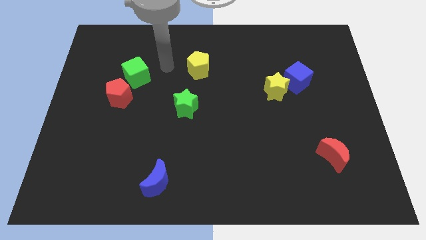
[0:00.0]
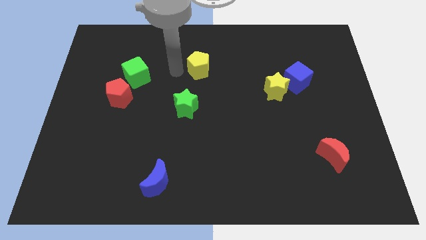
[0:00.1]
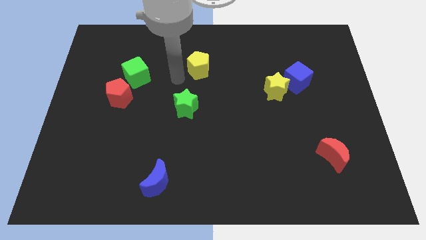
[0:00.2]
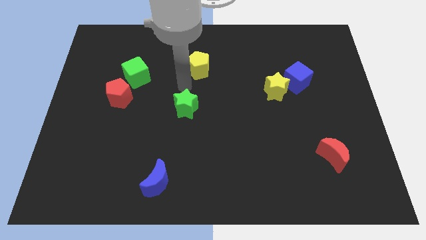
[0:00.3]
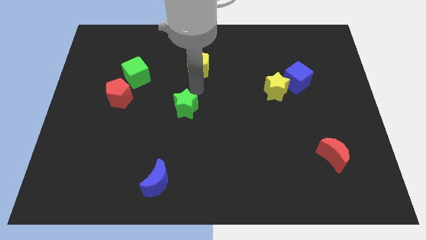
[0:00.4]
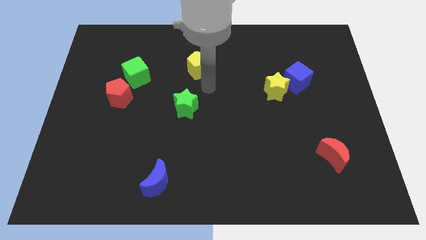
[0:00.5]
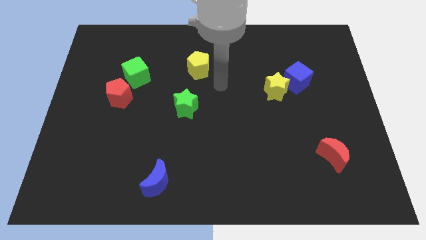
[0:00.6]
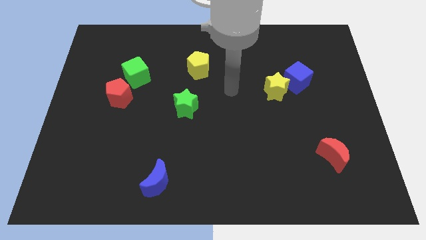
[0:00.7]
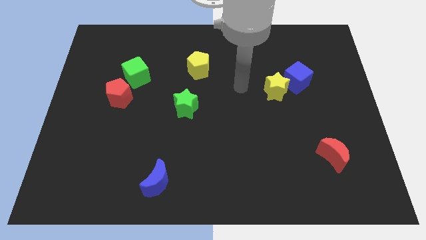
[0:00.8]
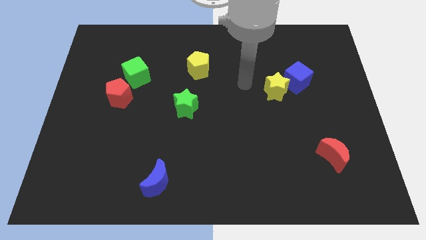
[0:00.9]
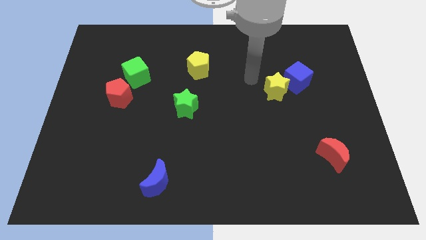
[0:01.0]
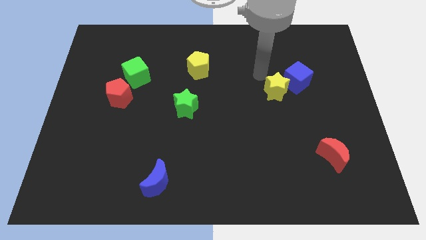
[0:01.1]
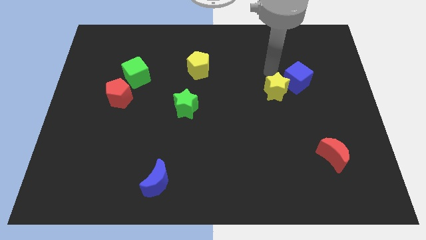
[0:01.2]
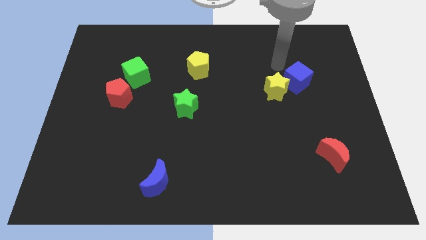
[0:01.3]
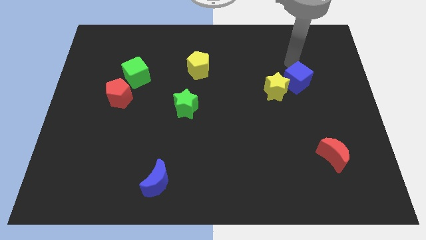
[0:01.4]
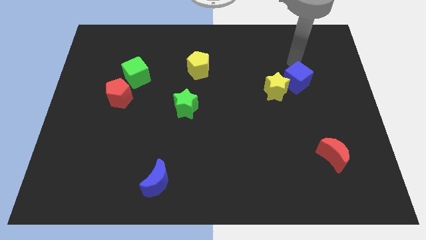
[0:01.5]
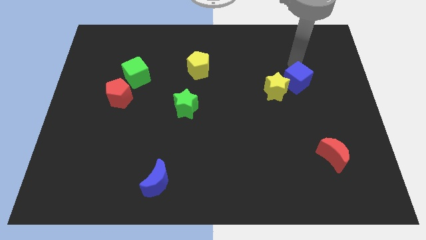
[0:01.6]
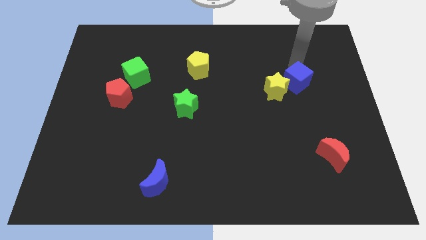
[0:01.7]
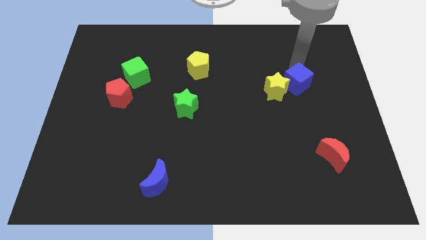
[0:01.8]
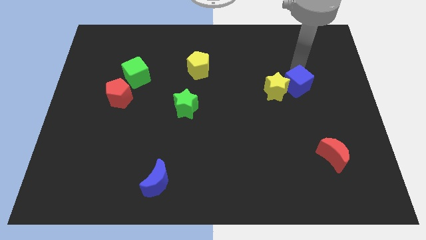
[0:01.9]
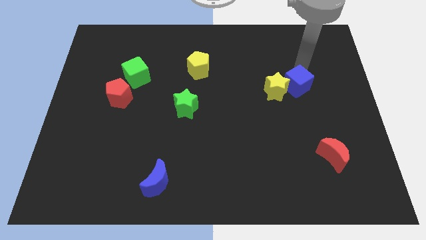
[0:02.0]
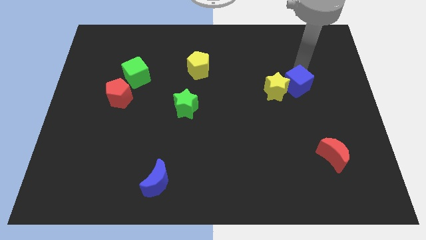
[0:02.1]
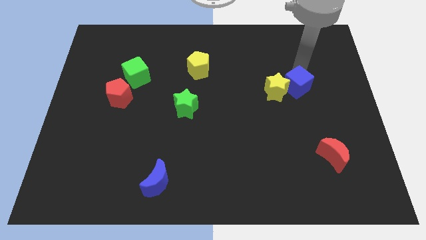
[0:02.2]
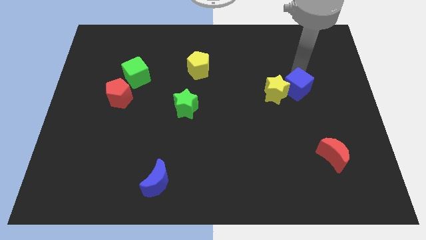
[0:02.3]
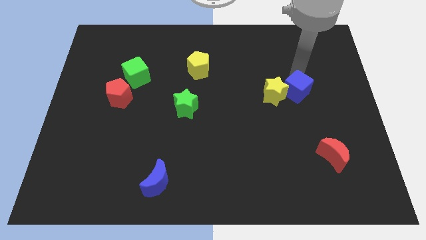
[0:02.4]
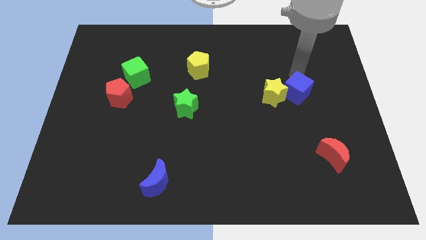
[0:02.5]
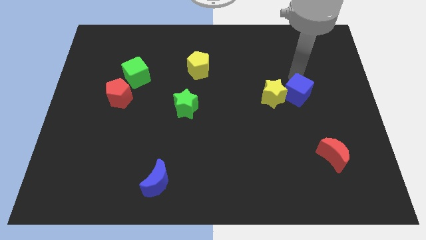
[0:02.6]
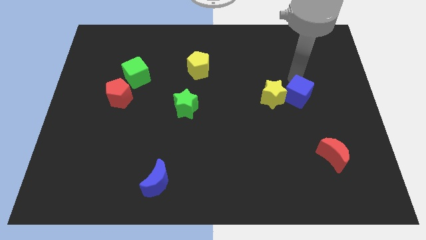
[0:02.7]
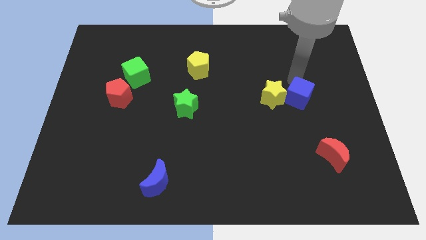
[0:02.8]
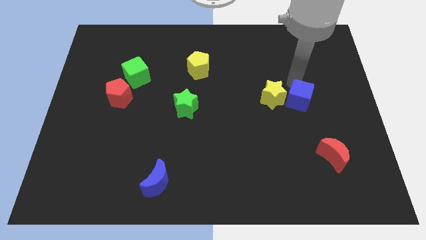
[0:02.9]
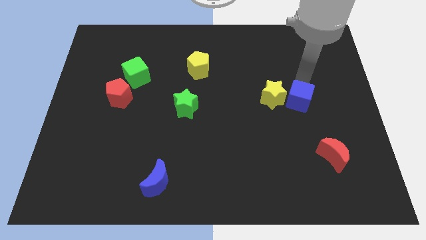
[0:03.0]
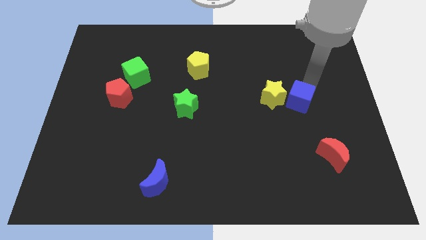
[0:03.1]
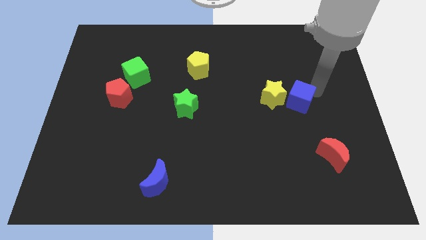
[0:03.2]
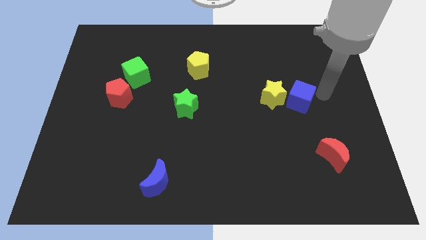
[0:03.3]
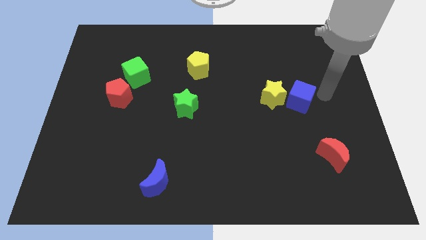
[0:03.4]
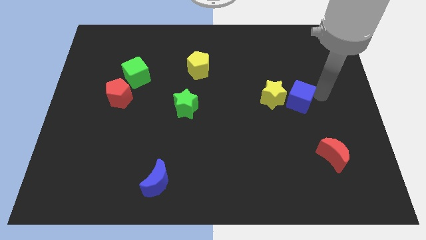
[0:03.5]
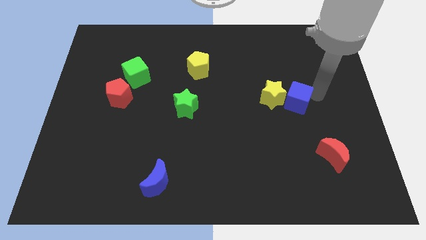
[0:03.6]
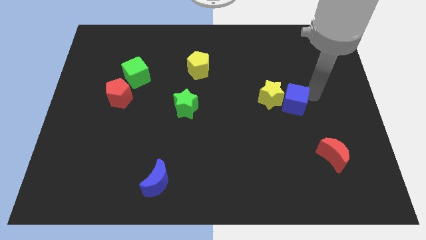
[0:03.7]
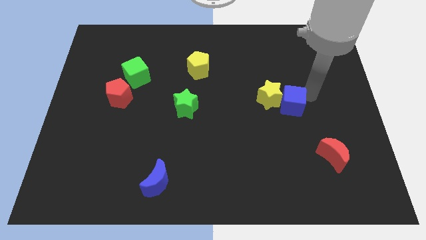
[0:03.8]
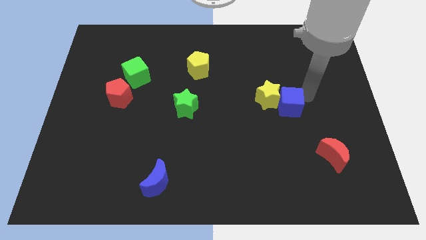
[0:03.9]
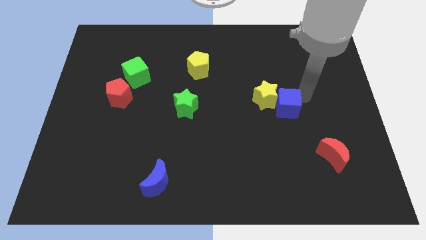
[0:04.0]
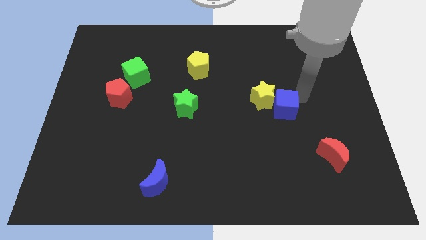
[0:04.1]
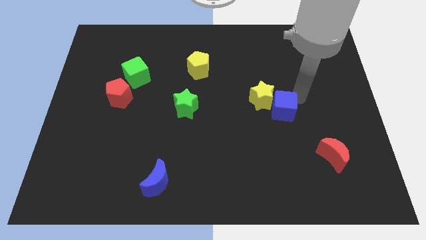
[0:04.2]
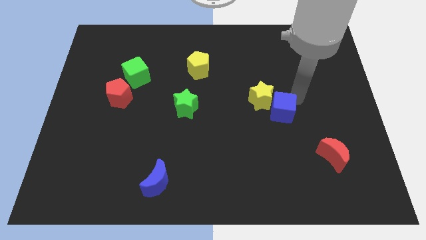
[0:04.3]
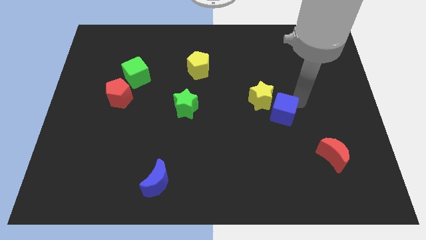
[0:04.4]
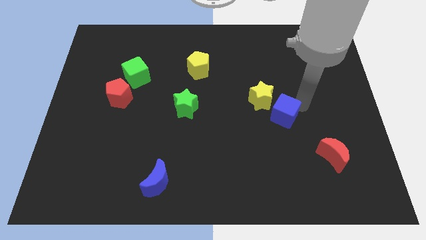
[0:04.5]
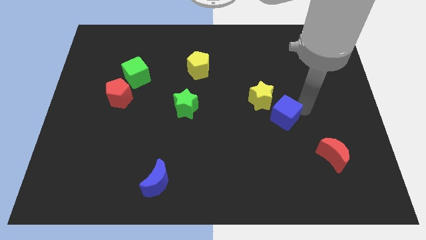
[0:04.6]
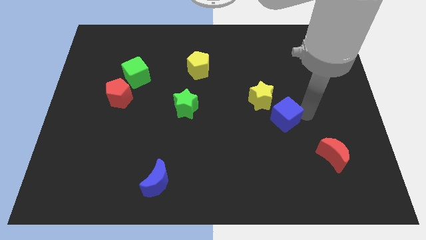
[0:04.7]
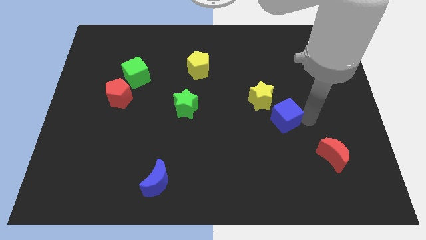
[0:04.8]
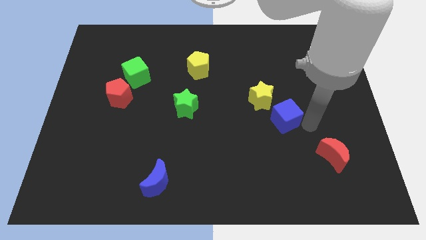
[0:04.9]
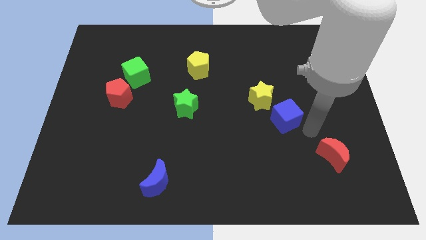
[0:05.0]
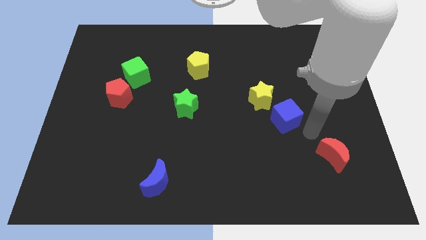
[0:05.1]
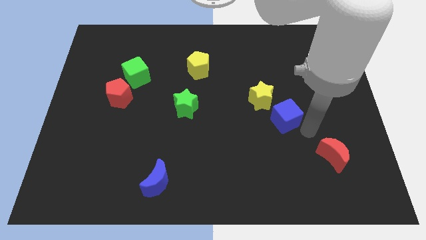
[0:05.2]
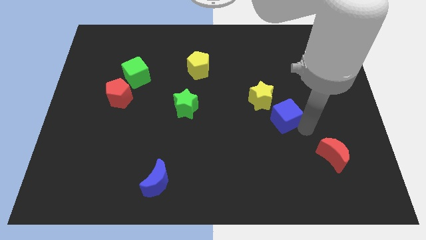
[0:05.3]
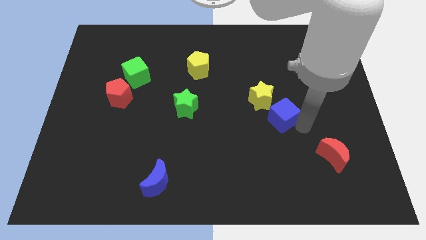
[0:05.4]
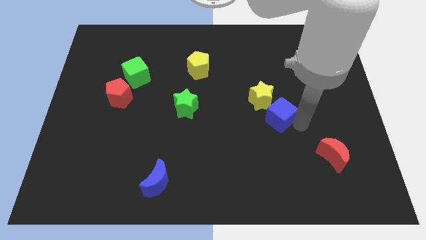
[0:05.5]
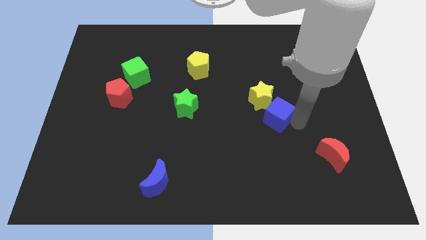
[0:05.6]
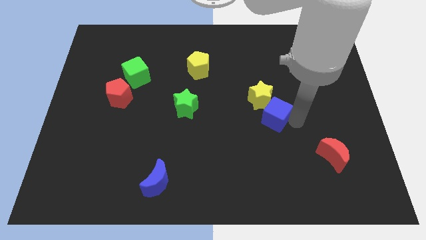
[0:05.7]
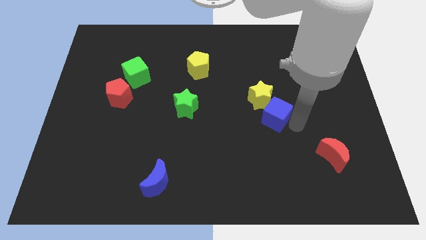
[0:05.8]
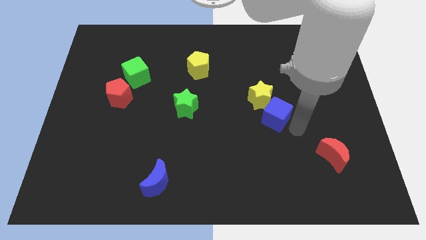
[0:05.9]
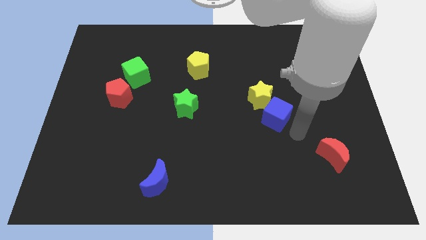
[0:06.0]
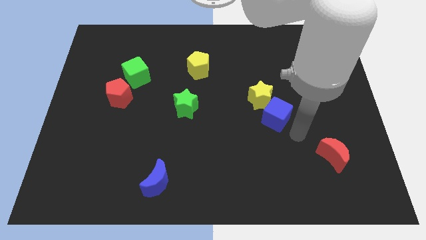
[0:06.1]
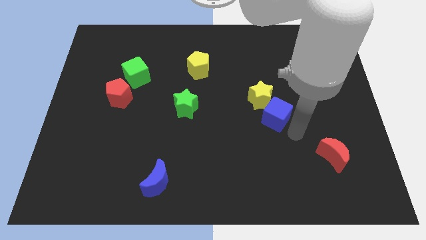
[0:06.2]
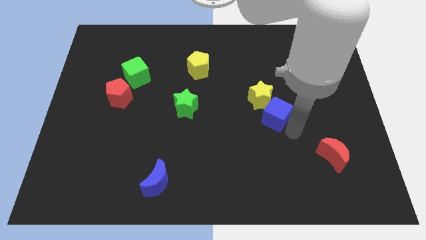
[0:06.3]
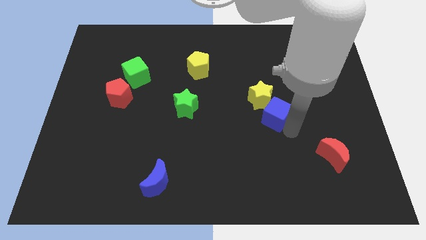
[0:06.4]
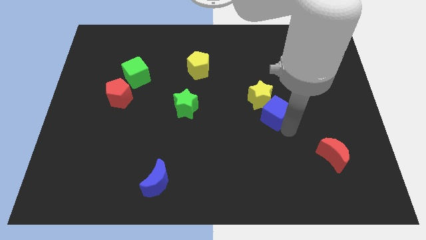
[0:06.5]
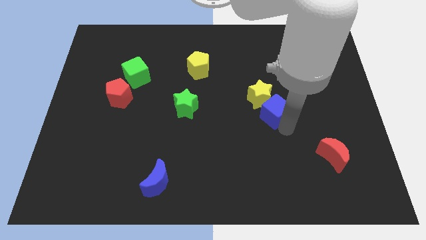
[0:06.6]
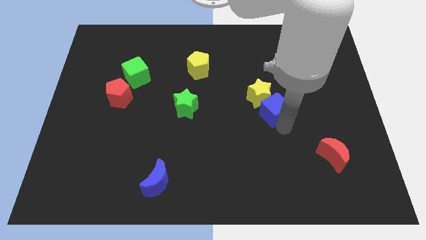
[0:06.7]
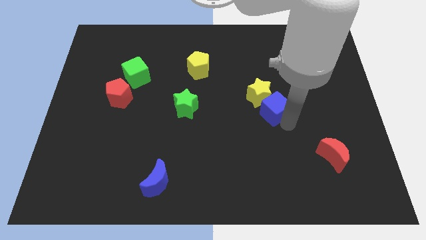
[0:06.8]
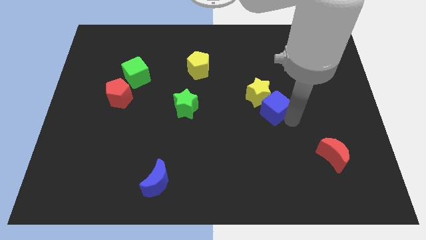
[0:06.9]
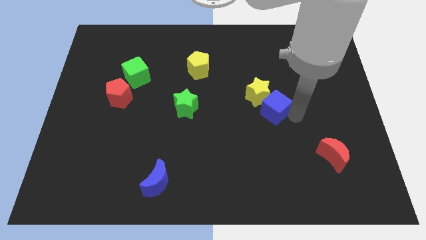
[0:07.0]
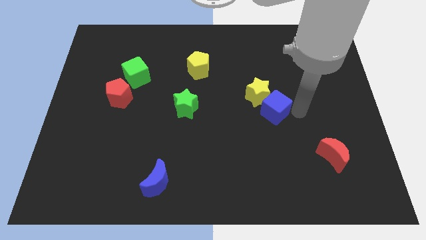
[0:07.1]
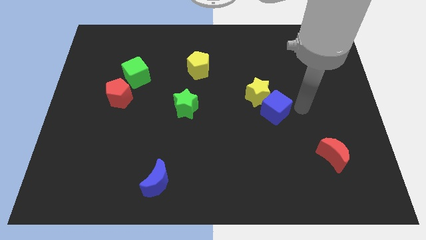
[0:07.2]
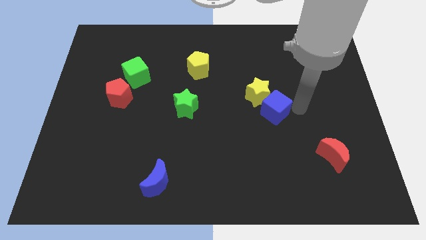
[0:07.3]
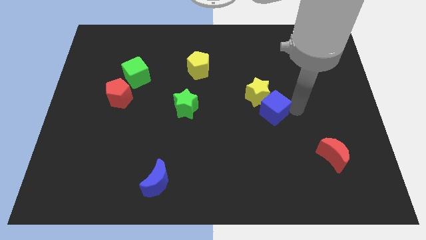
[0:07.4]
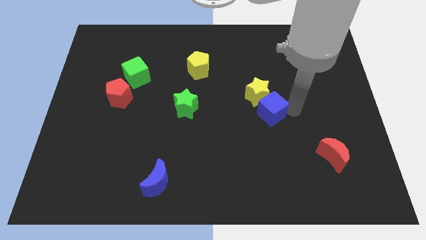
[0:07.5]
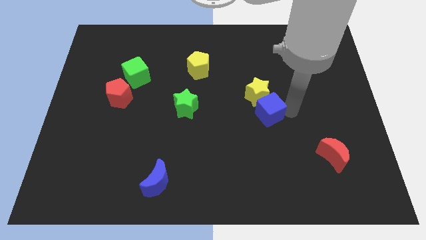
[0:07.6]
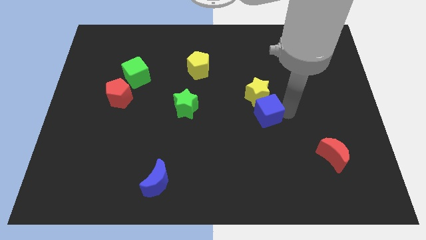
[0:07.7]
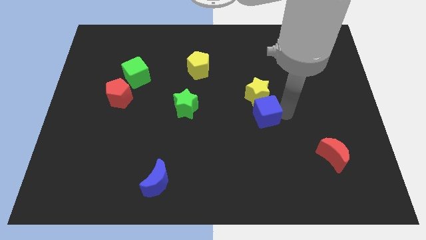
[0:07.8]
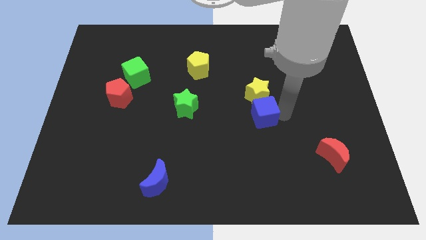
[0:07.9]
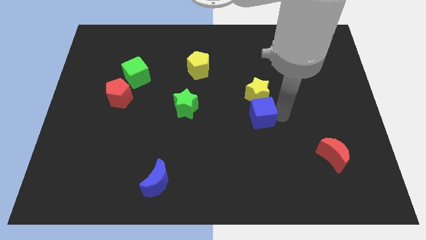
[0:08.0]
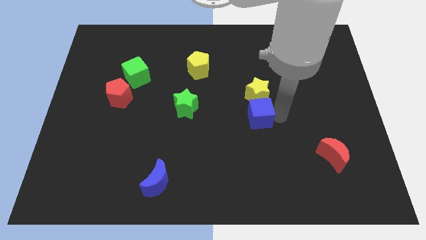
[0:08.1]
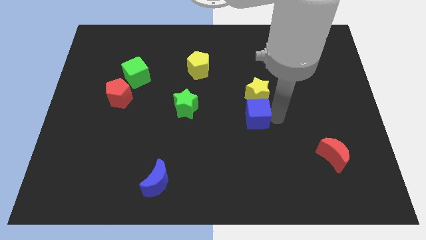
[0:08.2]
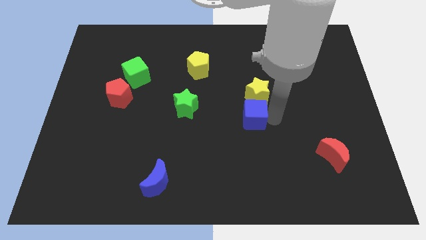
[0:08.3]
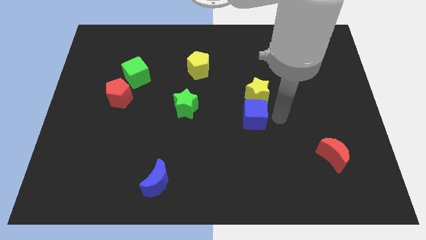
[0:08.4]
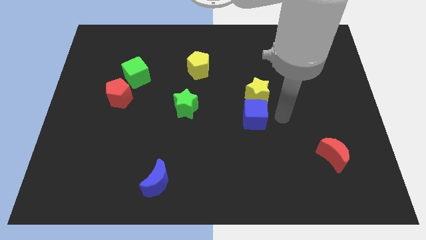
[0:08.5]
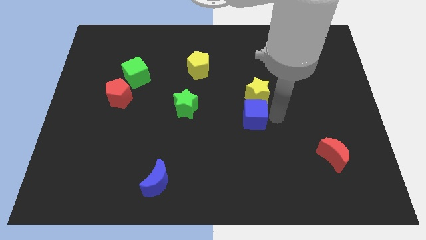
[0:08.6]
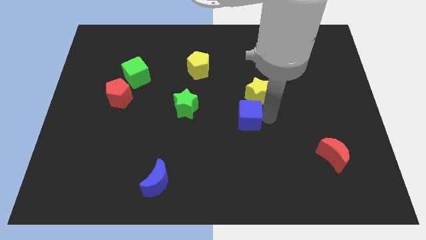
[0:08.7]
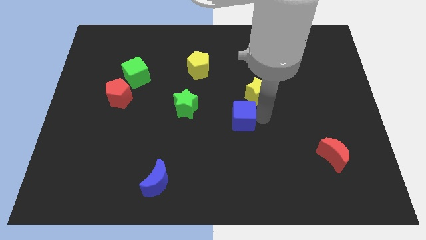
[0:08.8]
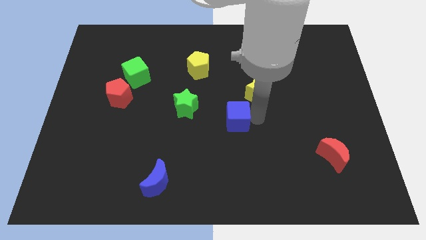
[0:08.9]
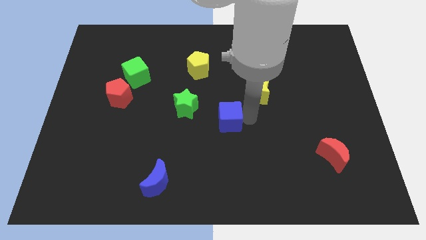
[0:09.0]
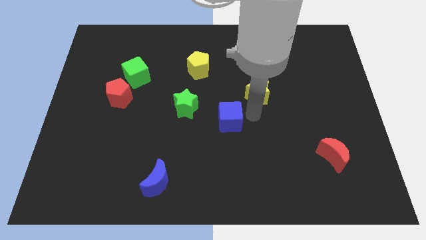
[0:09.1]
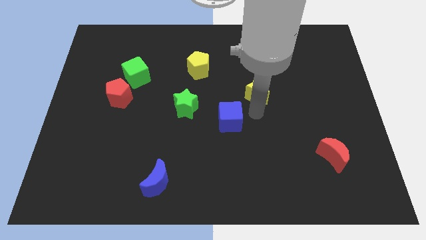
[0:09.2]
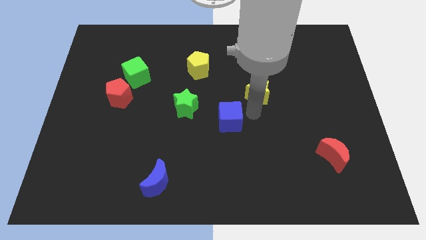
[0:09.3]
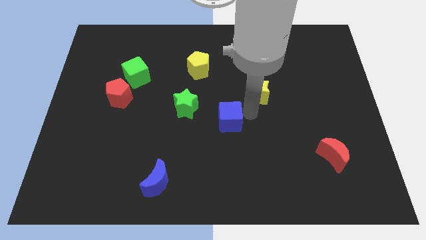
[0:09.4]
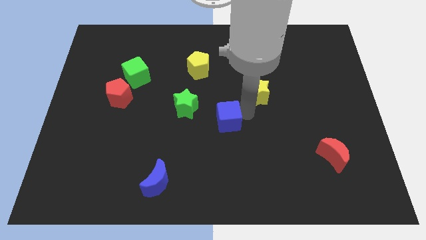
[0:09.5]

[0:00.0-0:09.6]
slide the blue cube to the bottom right side of the green star
